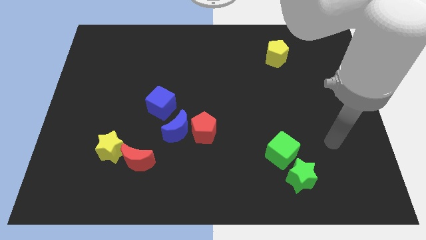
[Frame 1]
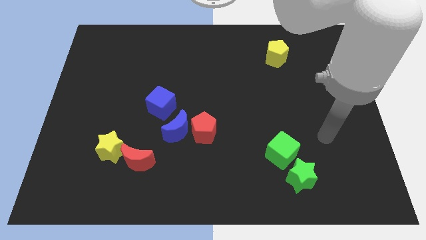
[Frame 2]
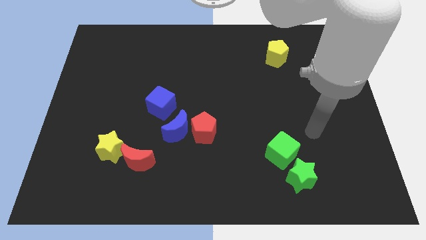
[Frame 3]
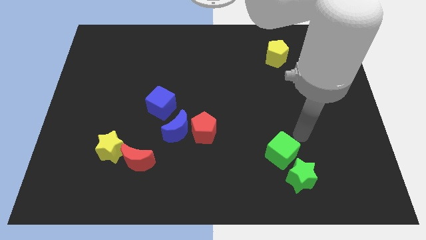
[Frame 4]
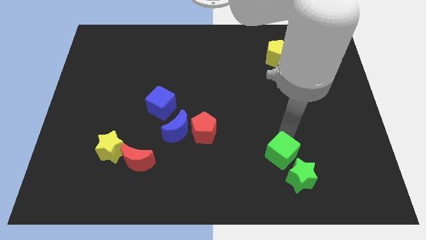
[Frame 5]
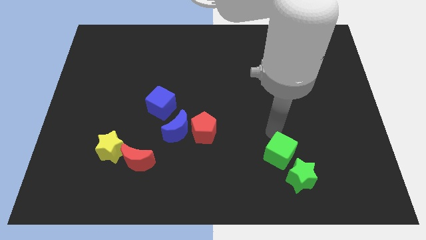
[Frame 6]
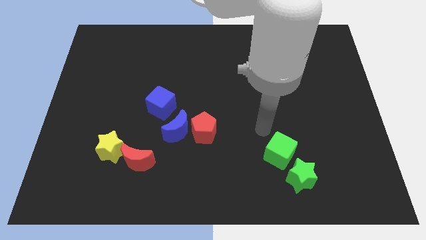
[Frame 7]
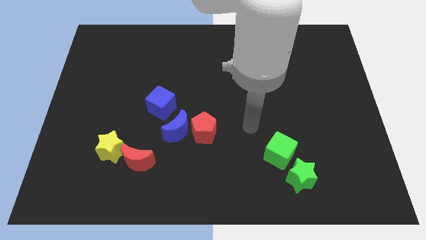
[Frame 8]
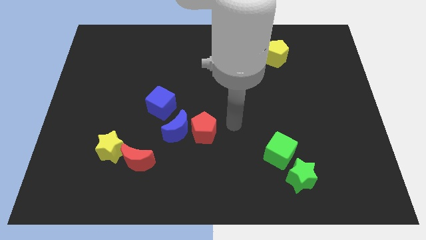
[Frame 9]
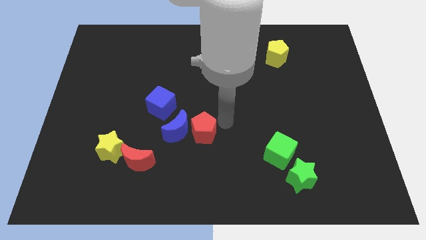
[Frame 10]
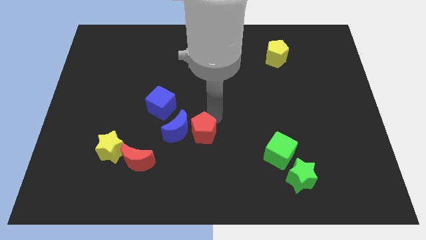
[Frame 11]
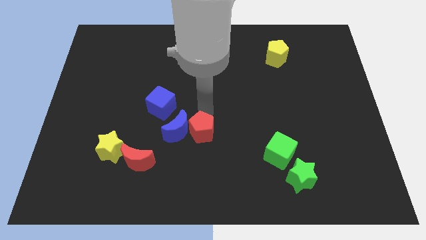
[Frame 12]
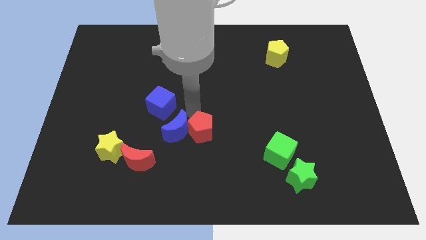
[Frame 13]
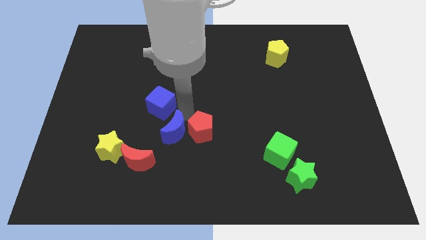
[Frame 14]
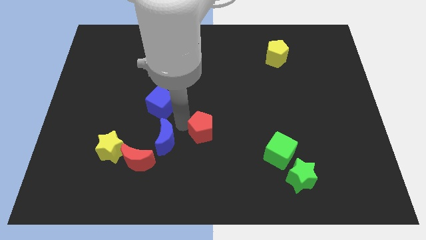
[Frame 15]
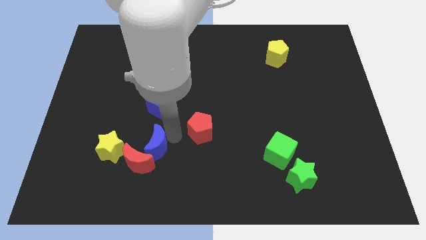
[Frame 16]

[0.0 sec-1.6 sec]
move the red pentagon away from the blue moon

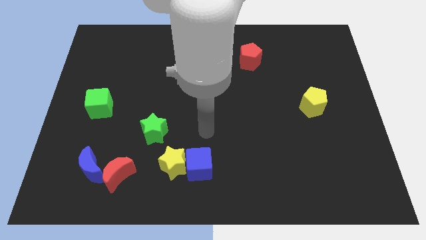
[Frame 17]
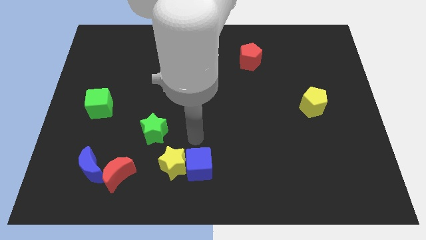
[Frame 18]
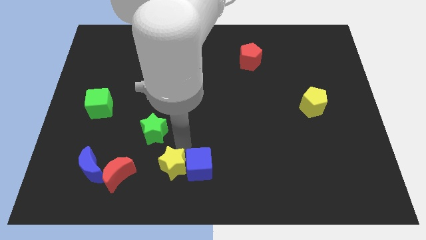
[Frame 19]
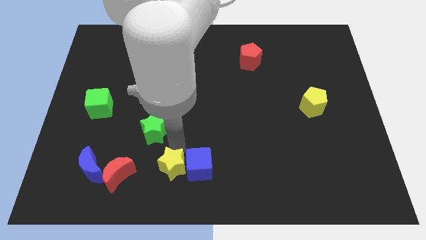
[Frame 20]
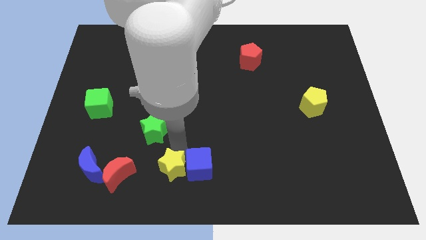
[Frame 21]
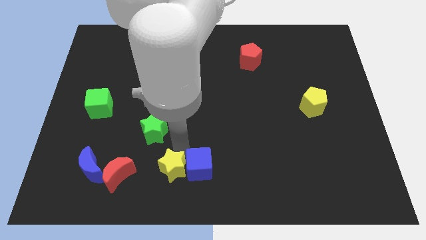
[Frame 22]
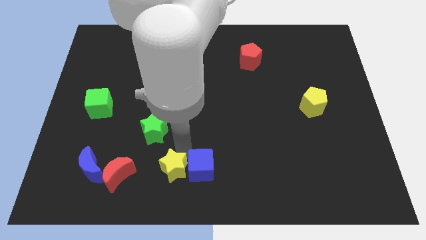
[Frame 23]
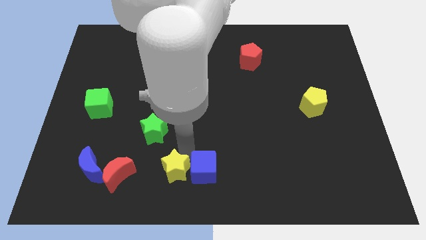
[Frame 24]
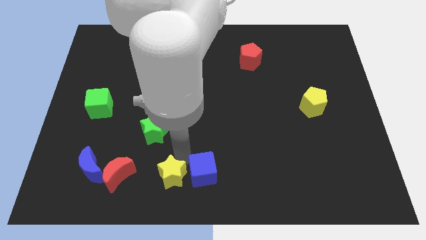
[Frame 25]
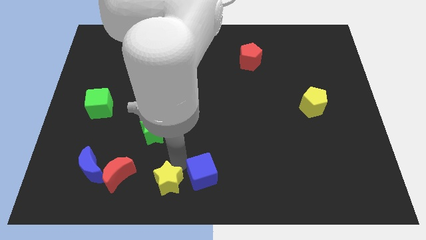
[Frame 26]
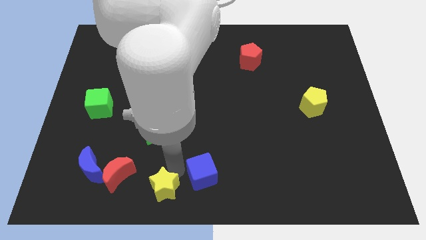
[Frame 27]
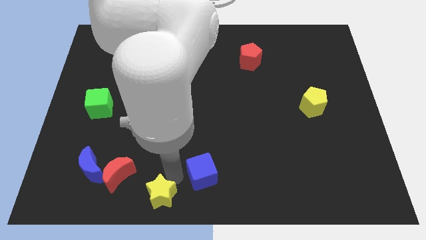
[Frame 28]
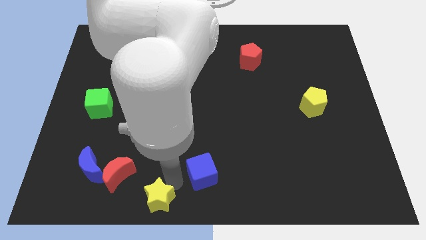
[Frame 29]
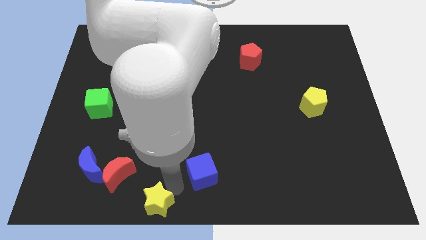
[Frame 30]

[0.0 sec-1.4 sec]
move the blue cube away from the yellow star

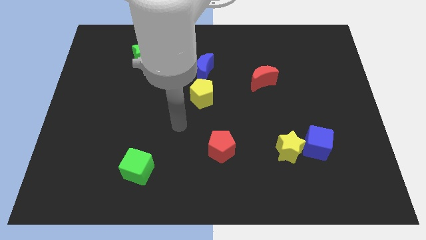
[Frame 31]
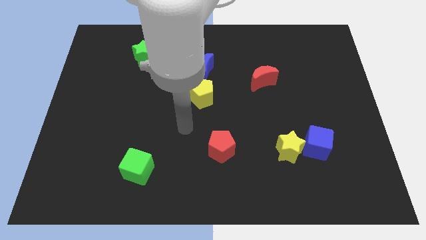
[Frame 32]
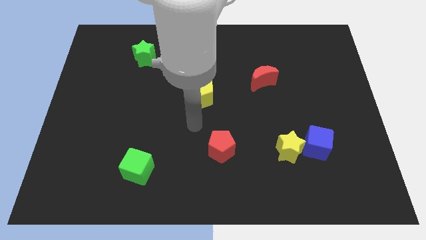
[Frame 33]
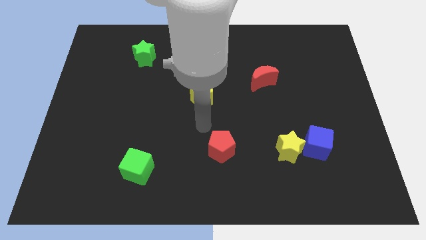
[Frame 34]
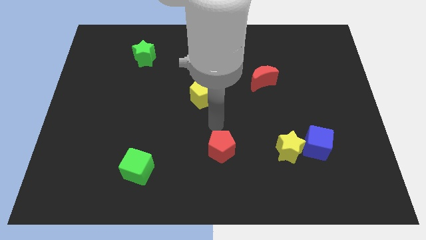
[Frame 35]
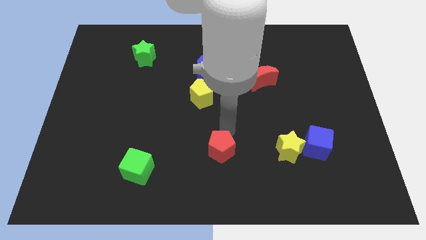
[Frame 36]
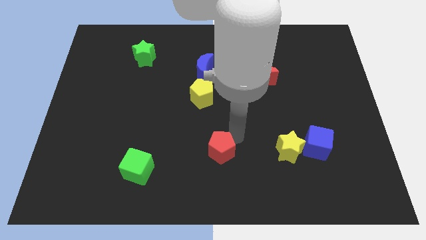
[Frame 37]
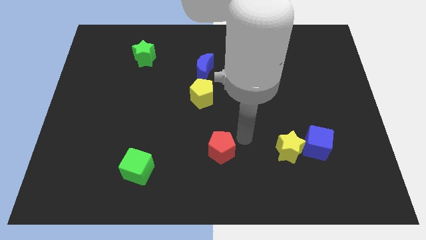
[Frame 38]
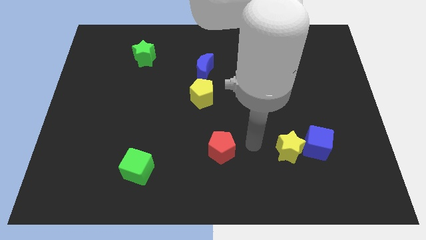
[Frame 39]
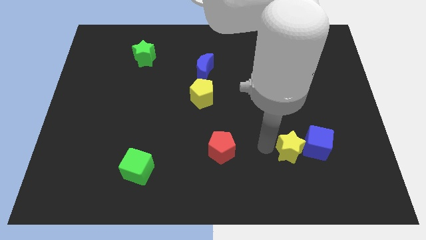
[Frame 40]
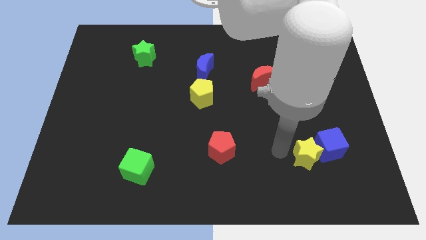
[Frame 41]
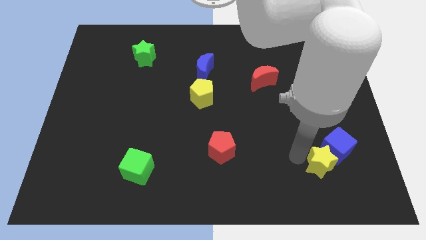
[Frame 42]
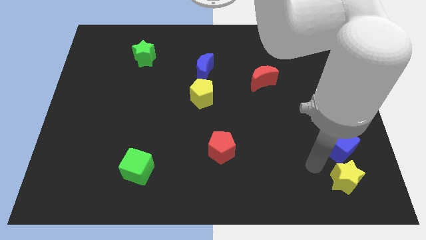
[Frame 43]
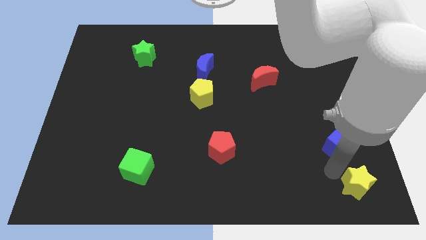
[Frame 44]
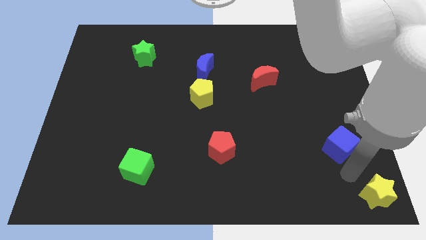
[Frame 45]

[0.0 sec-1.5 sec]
pull the blue cube apart from the yellow star

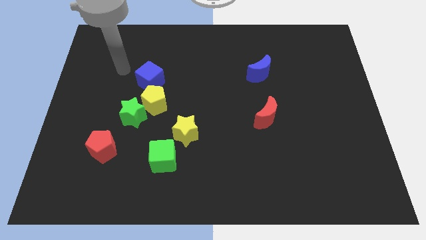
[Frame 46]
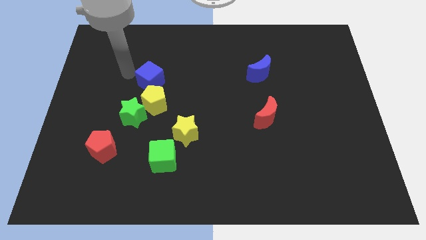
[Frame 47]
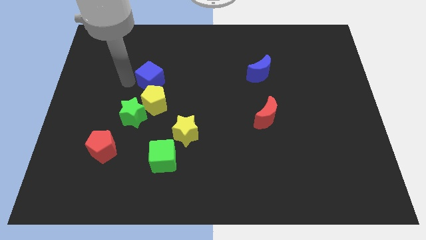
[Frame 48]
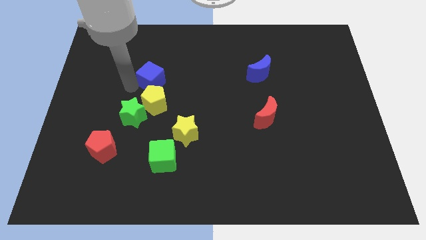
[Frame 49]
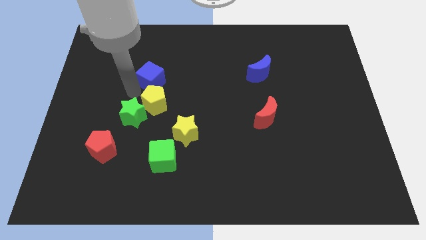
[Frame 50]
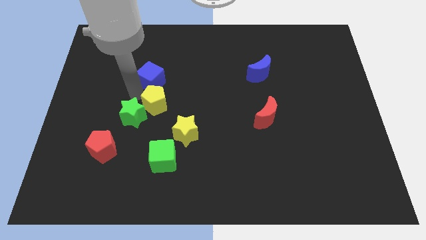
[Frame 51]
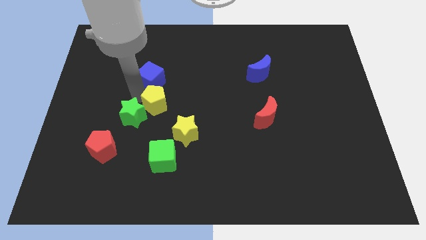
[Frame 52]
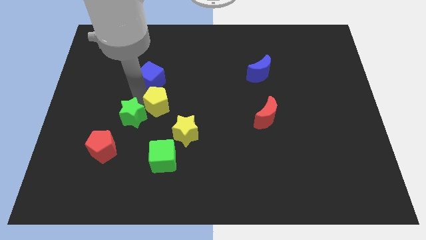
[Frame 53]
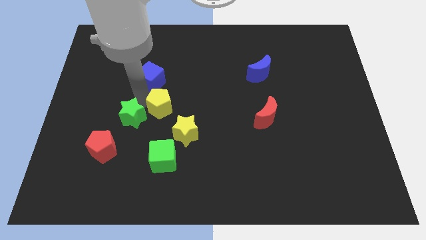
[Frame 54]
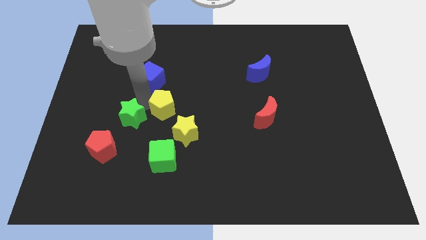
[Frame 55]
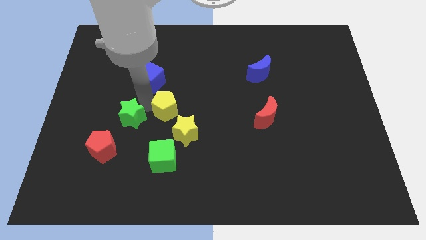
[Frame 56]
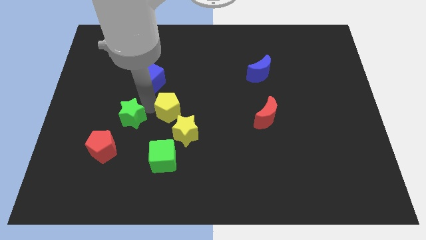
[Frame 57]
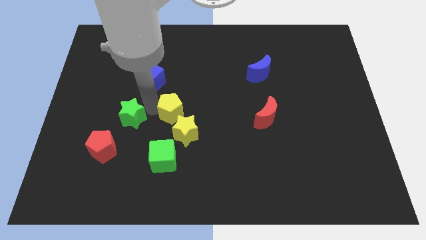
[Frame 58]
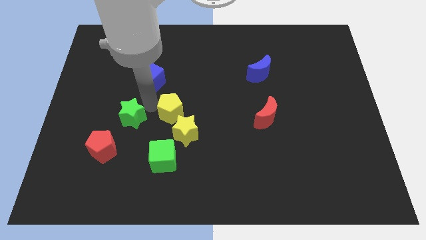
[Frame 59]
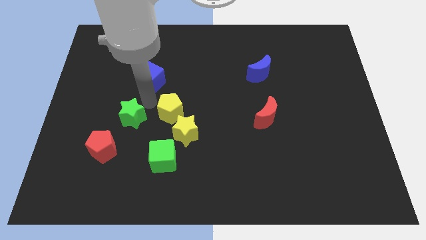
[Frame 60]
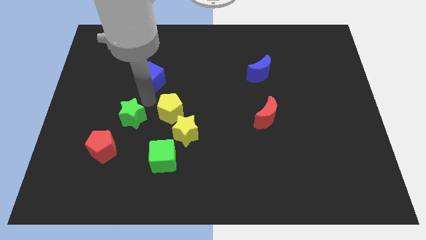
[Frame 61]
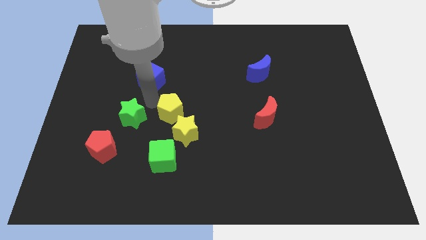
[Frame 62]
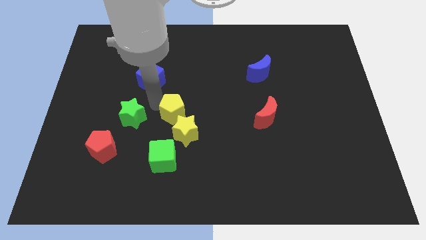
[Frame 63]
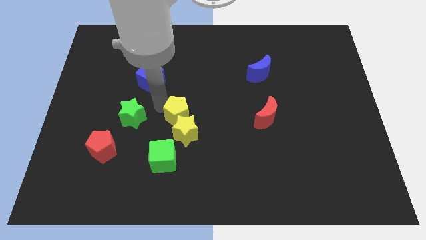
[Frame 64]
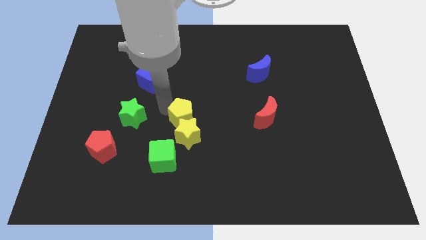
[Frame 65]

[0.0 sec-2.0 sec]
pull the yellow pentagon apart from the green star and blue cube

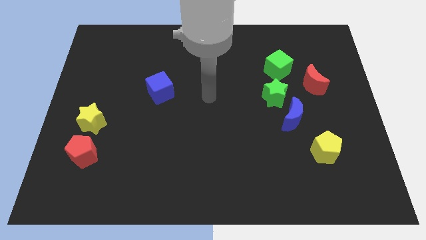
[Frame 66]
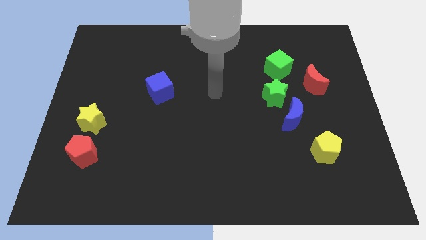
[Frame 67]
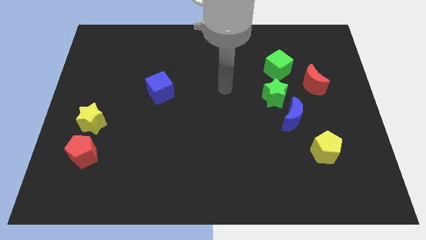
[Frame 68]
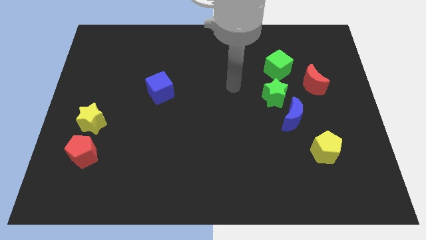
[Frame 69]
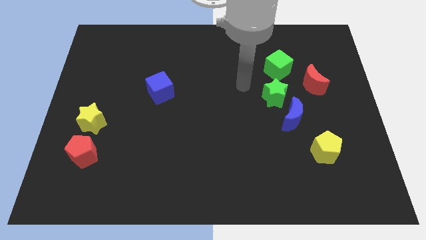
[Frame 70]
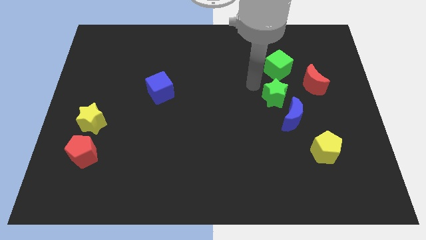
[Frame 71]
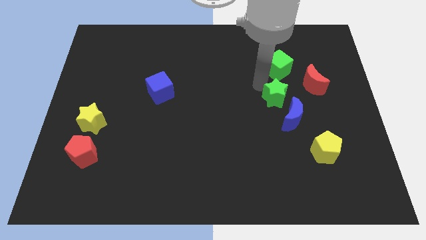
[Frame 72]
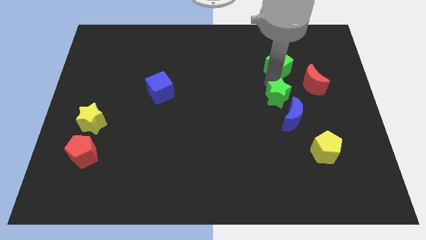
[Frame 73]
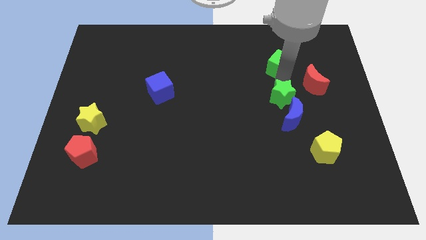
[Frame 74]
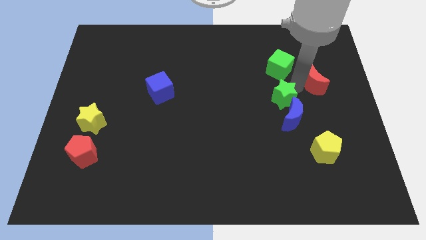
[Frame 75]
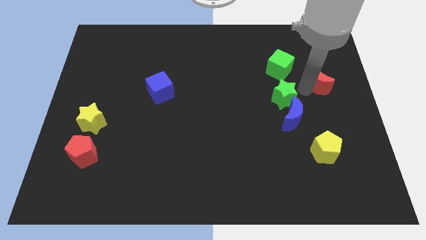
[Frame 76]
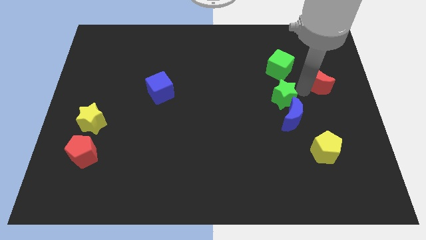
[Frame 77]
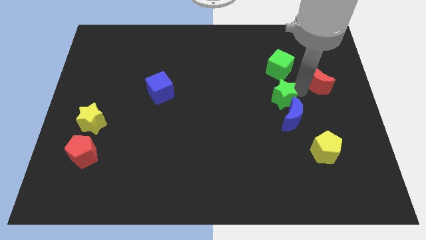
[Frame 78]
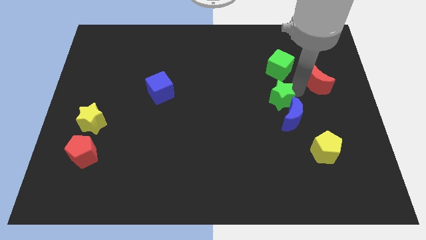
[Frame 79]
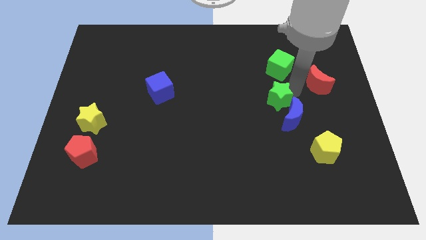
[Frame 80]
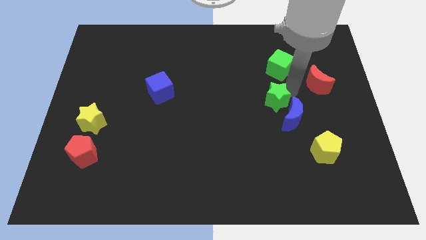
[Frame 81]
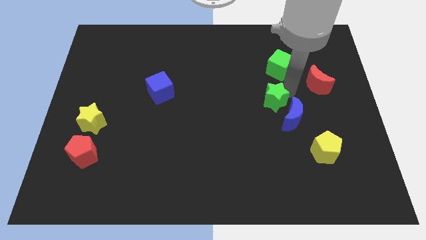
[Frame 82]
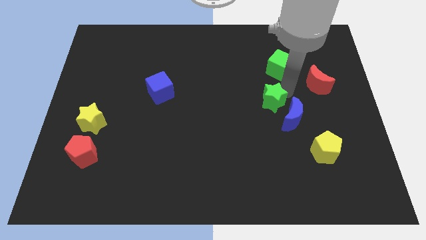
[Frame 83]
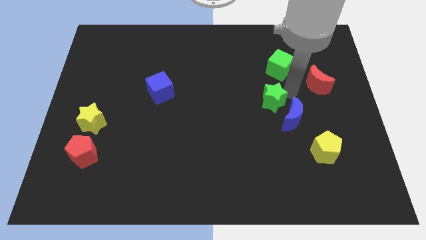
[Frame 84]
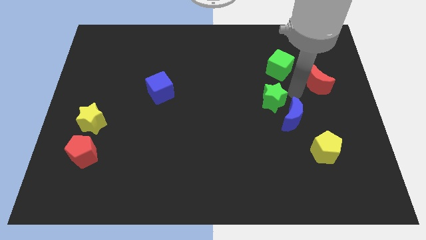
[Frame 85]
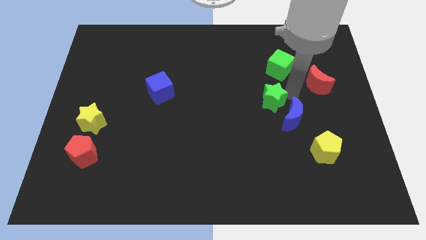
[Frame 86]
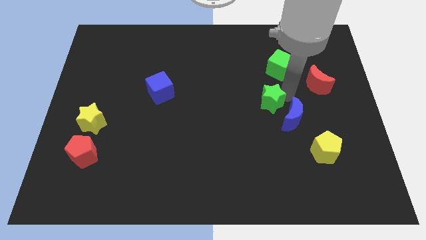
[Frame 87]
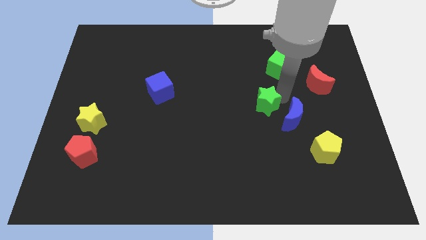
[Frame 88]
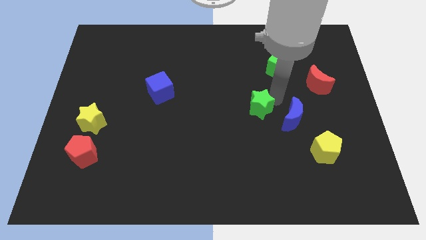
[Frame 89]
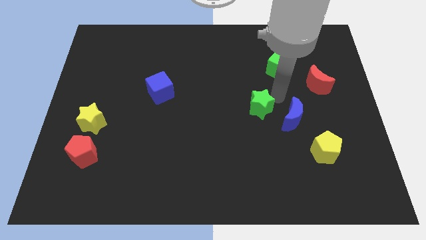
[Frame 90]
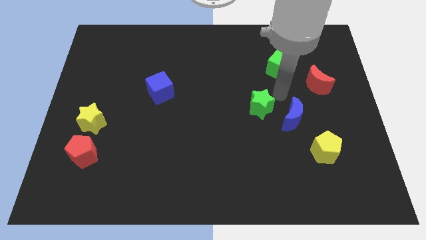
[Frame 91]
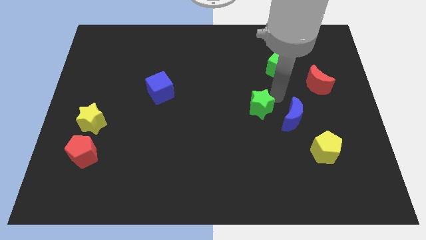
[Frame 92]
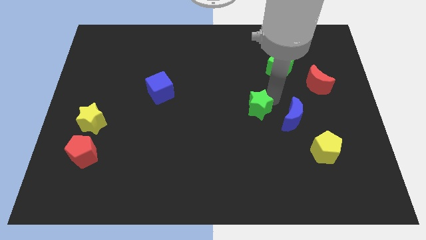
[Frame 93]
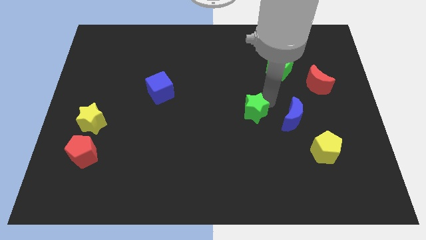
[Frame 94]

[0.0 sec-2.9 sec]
pull the green star apart from the blue moon and green cube
